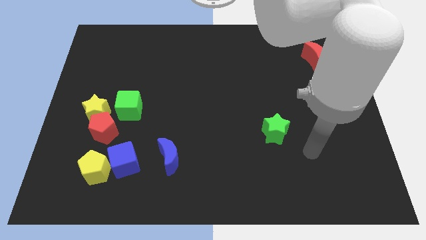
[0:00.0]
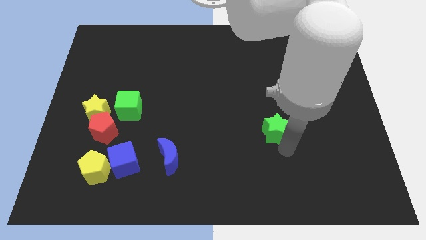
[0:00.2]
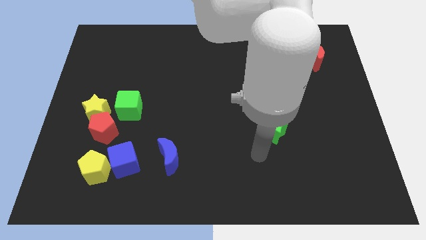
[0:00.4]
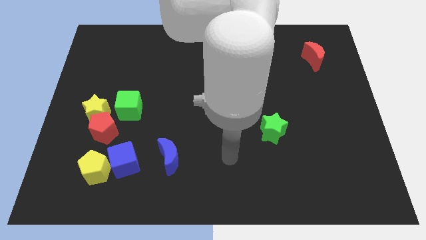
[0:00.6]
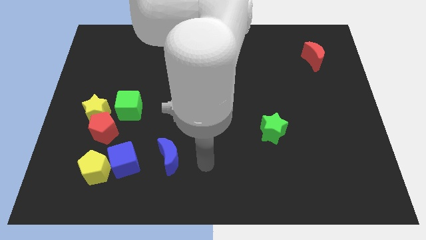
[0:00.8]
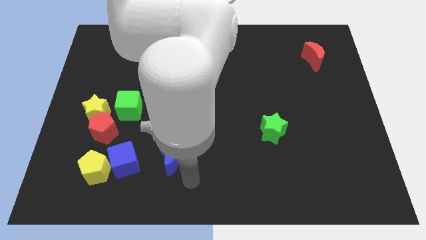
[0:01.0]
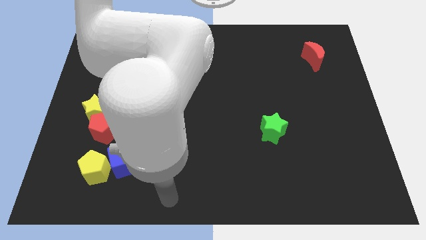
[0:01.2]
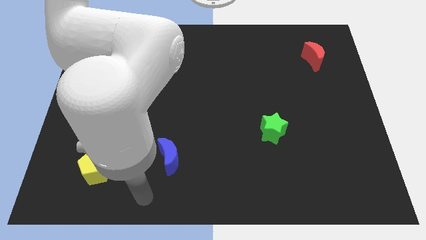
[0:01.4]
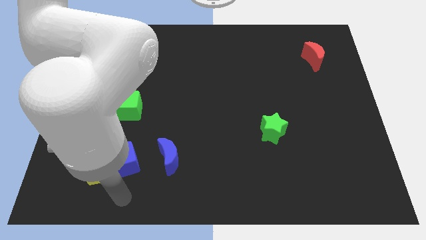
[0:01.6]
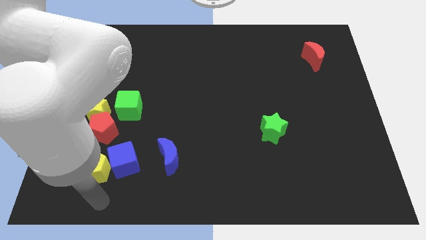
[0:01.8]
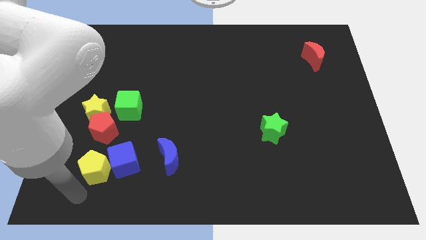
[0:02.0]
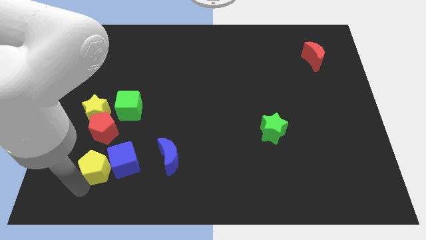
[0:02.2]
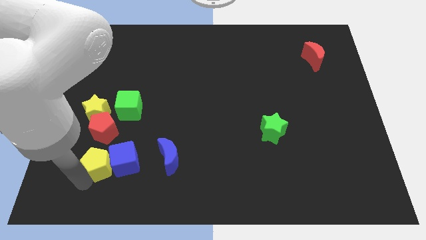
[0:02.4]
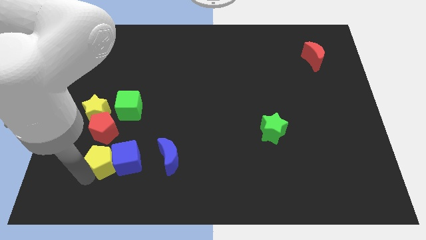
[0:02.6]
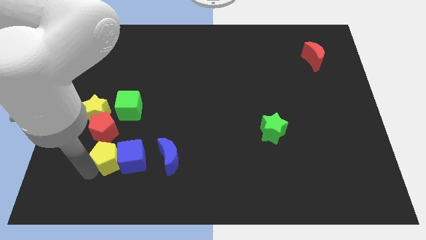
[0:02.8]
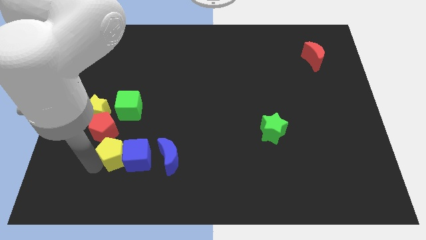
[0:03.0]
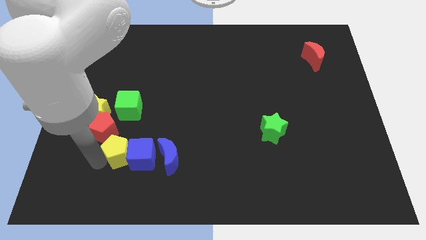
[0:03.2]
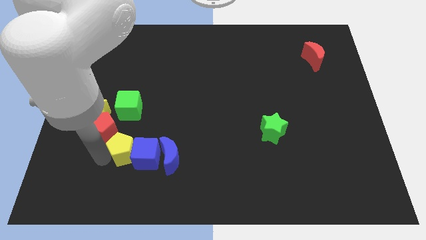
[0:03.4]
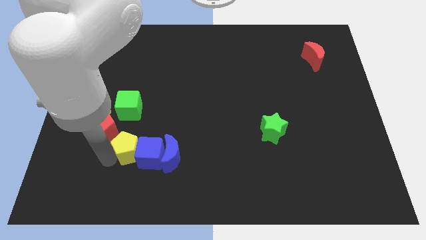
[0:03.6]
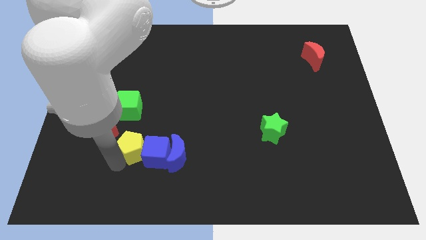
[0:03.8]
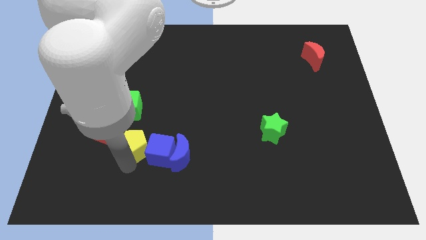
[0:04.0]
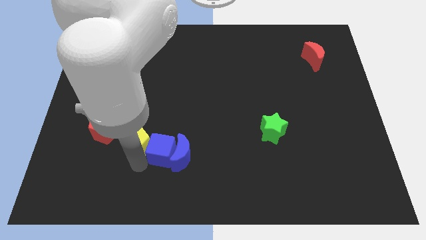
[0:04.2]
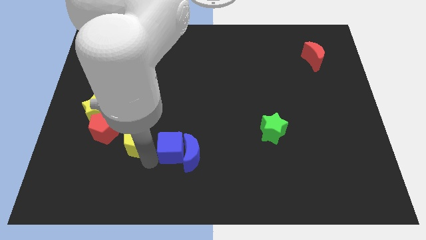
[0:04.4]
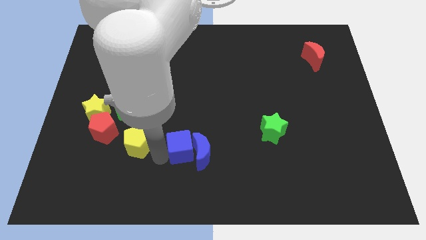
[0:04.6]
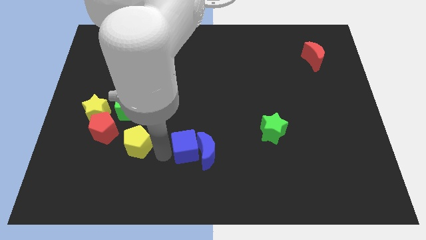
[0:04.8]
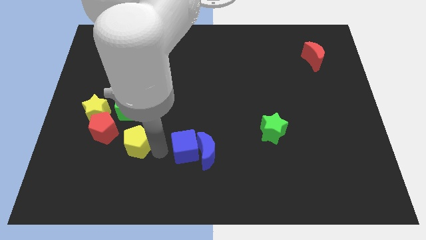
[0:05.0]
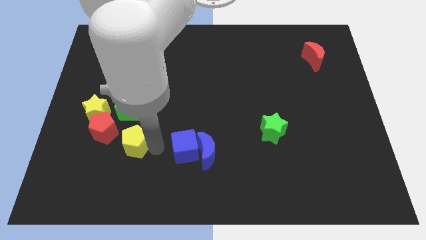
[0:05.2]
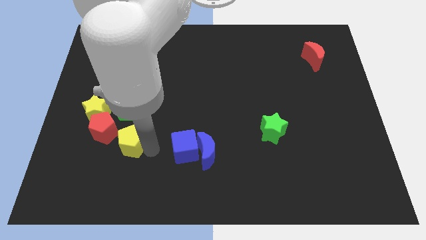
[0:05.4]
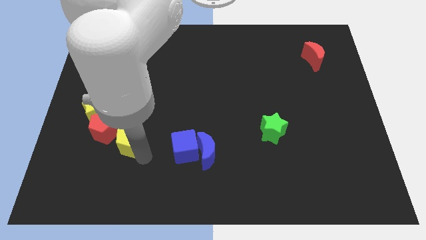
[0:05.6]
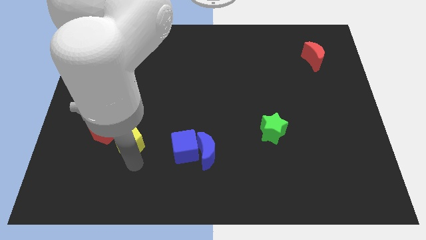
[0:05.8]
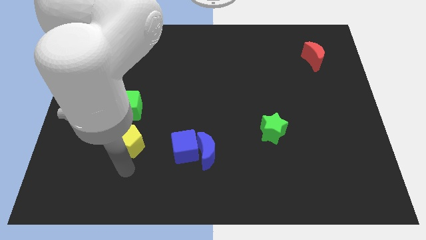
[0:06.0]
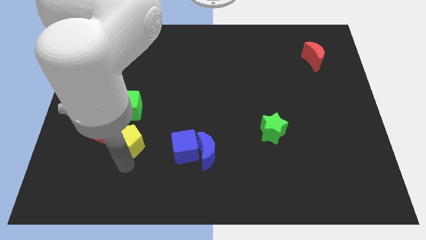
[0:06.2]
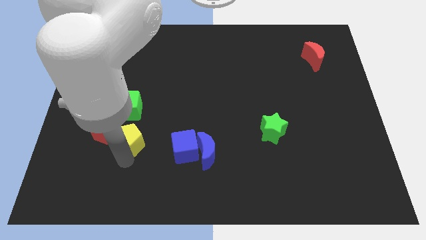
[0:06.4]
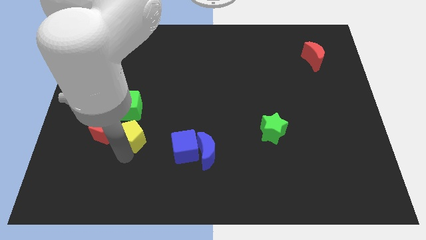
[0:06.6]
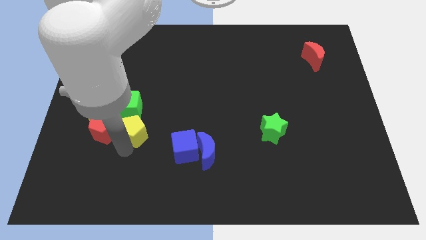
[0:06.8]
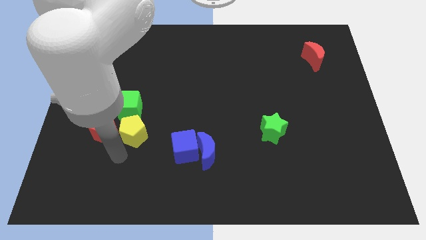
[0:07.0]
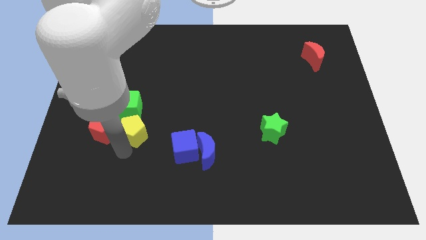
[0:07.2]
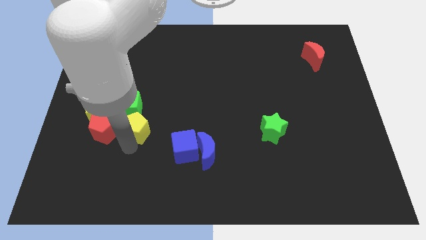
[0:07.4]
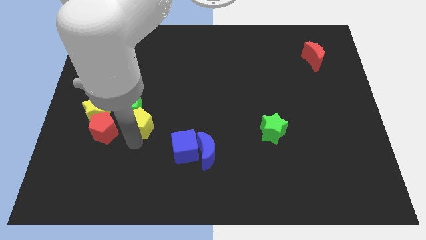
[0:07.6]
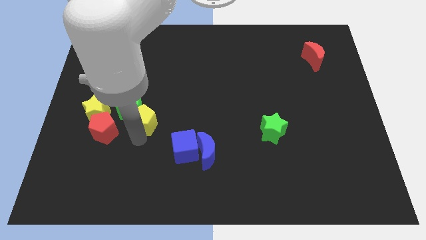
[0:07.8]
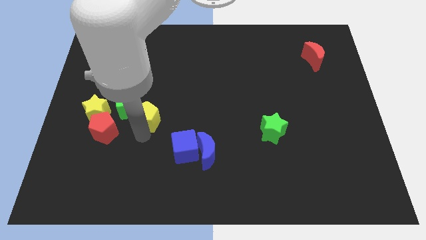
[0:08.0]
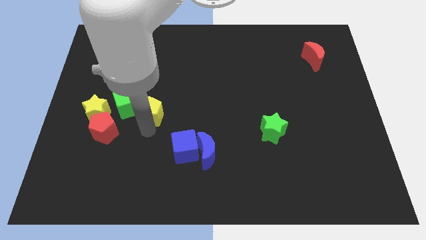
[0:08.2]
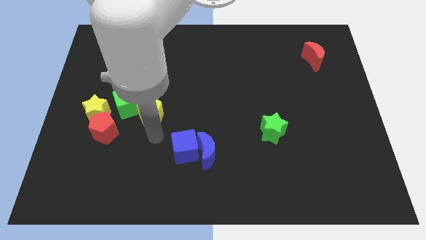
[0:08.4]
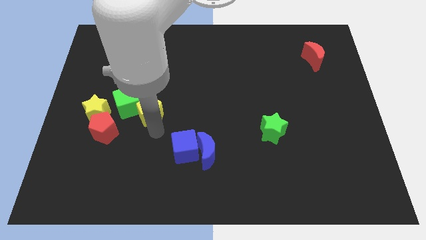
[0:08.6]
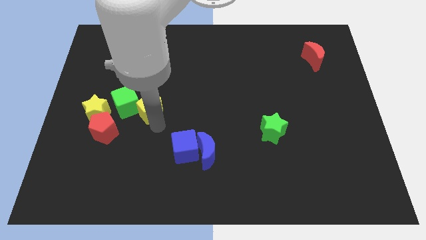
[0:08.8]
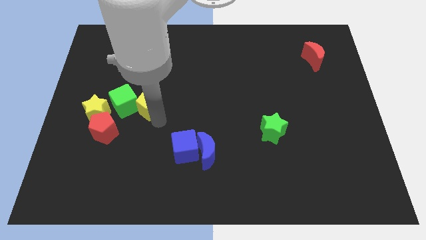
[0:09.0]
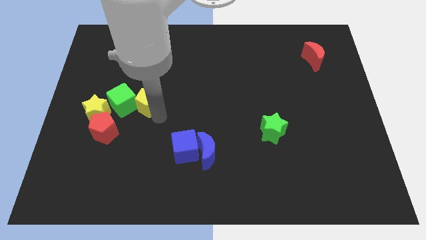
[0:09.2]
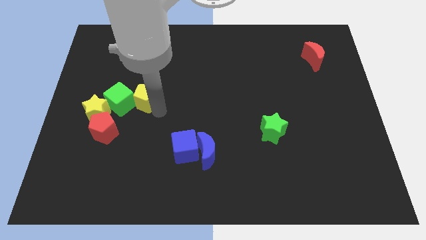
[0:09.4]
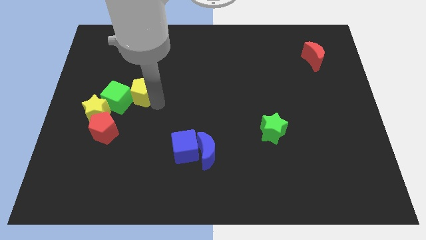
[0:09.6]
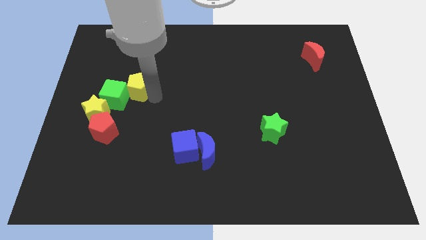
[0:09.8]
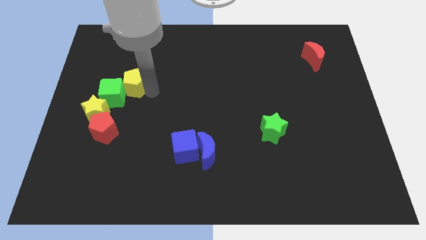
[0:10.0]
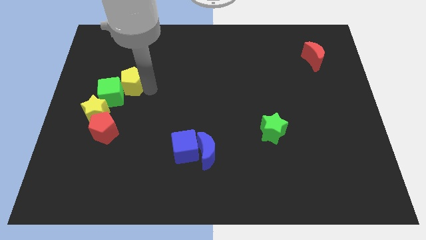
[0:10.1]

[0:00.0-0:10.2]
slide the yellow pentagon above the green cube

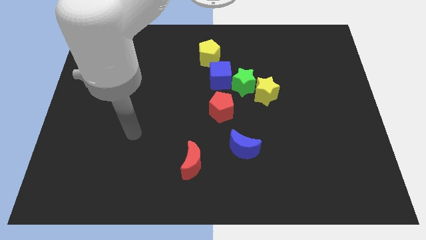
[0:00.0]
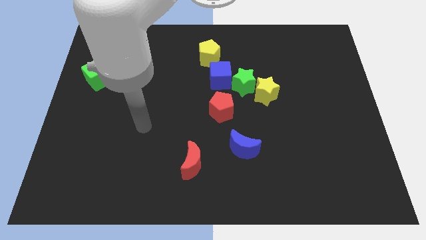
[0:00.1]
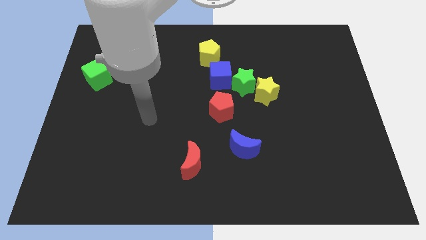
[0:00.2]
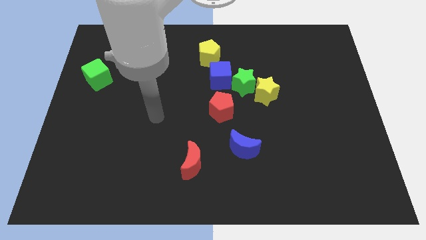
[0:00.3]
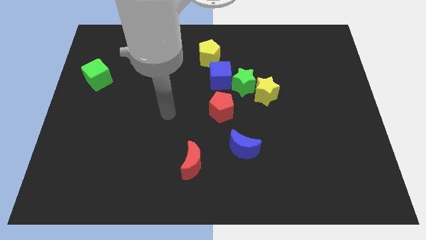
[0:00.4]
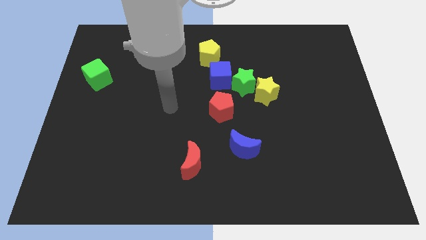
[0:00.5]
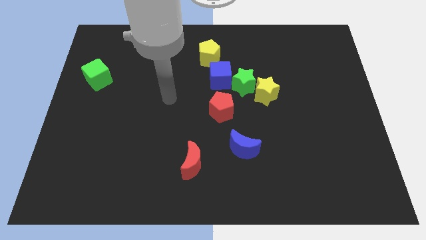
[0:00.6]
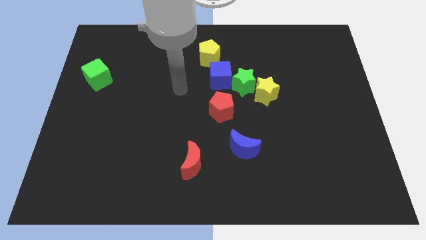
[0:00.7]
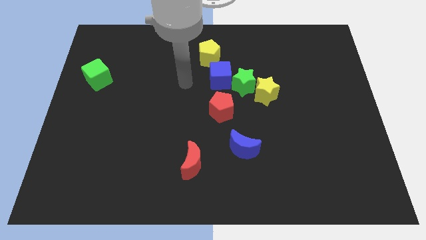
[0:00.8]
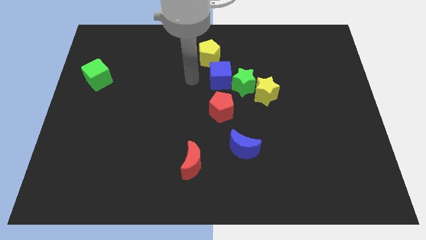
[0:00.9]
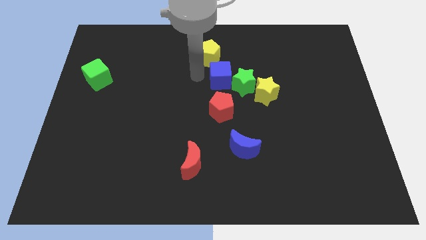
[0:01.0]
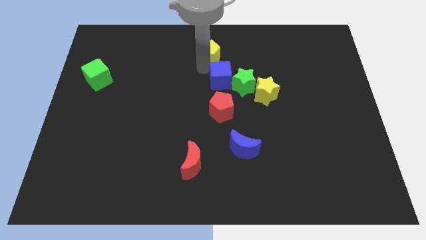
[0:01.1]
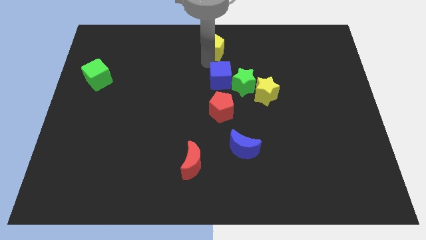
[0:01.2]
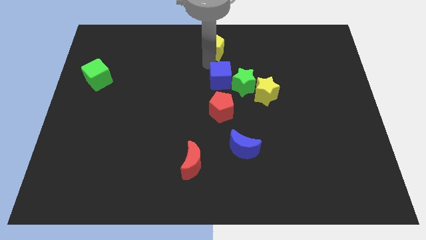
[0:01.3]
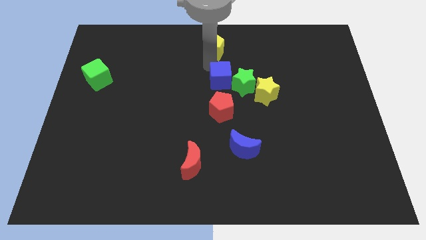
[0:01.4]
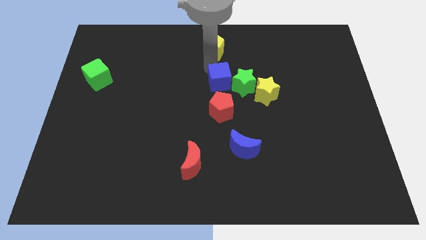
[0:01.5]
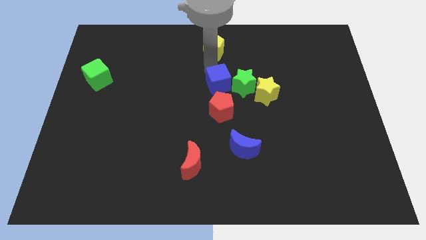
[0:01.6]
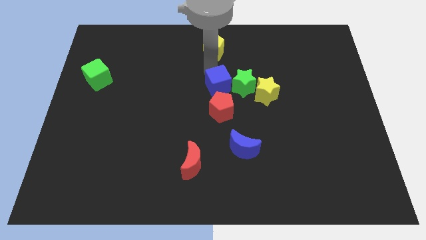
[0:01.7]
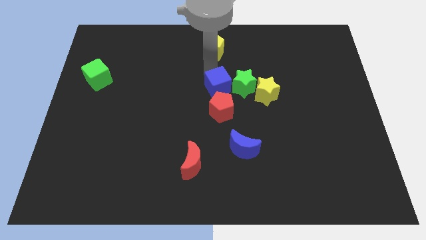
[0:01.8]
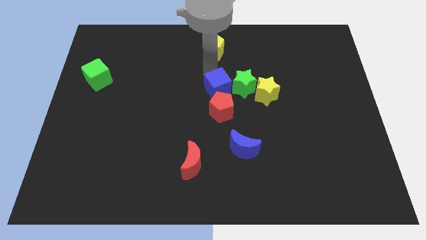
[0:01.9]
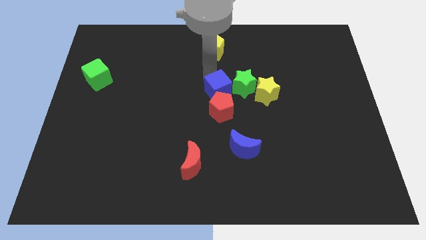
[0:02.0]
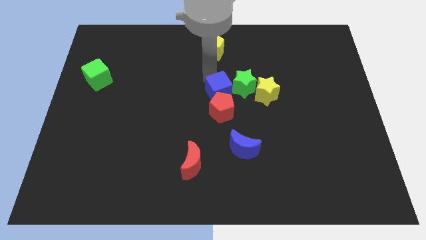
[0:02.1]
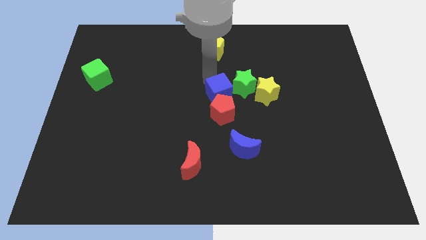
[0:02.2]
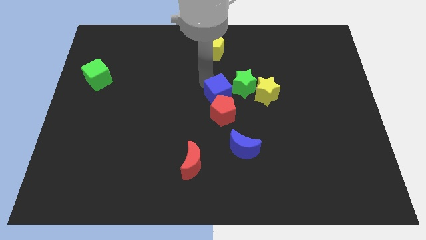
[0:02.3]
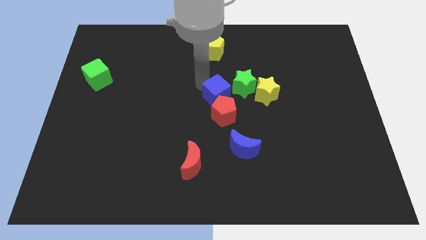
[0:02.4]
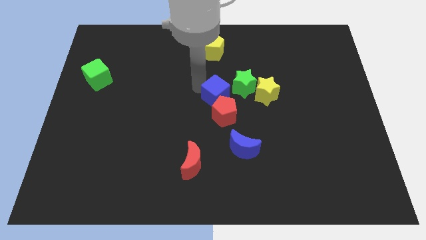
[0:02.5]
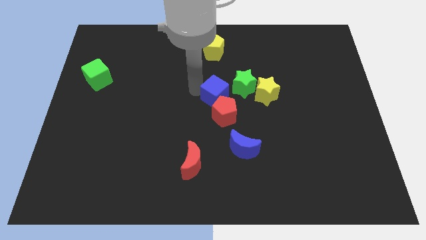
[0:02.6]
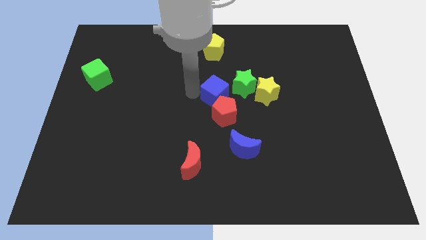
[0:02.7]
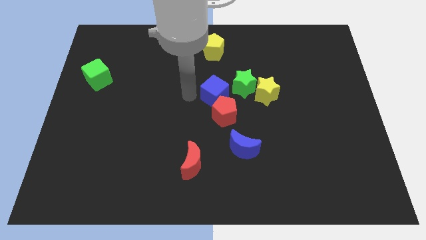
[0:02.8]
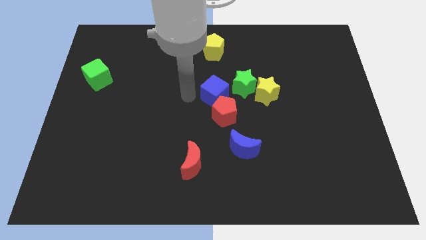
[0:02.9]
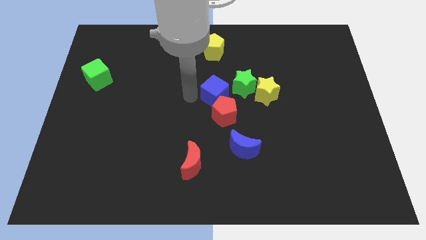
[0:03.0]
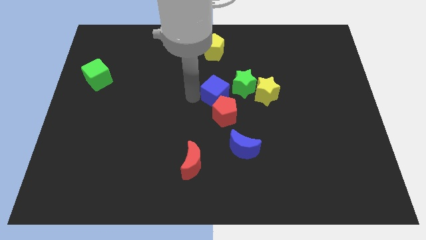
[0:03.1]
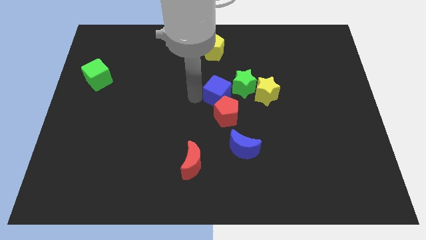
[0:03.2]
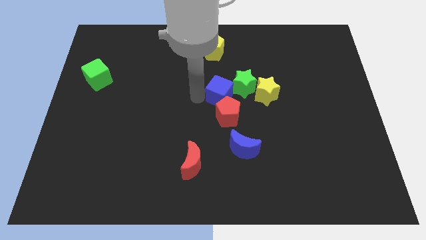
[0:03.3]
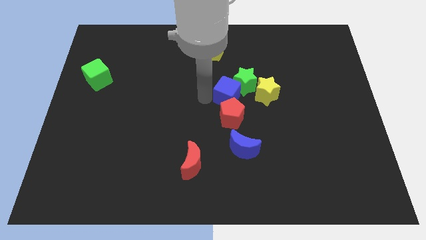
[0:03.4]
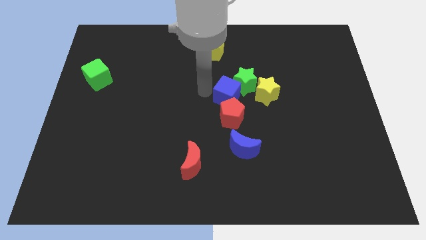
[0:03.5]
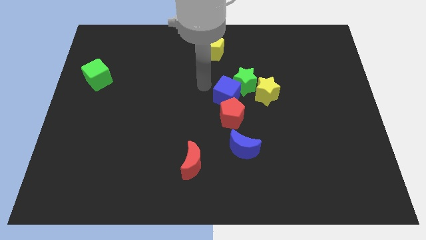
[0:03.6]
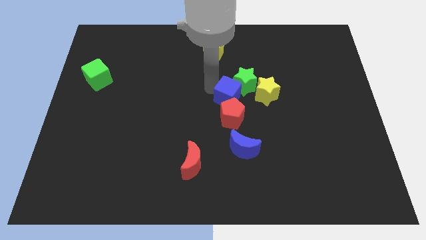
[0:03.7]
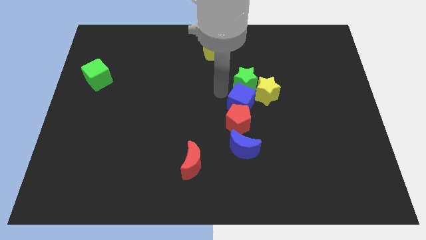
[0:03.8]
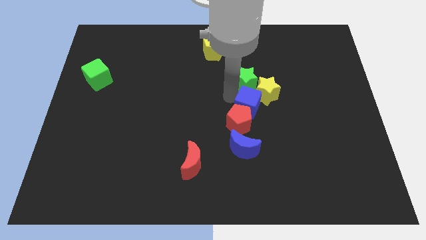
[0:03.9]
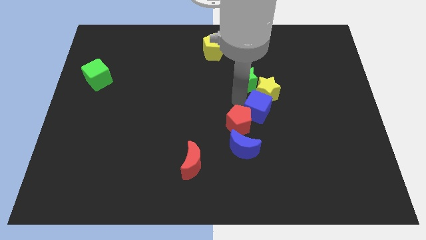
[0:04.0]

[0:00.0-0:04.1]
push the blue cube just right of the red pentagon
